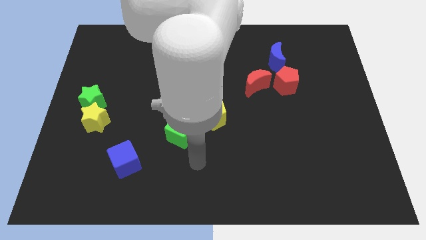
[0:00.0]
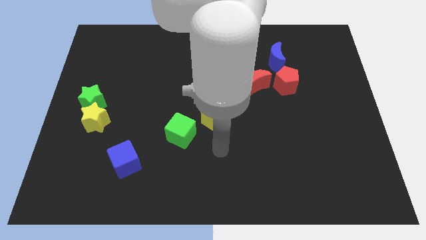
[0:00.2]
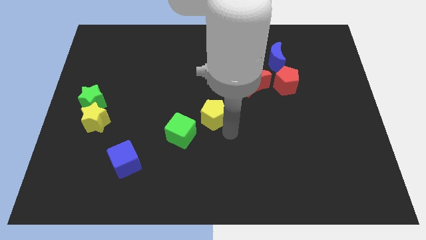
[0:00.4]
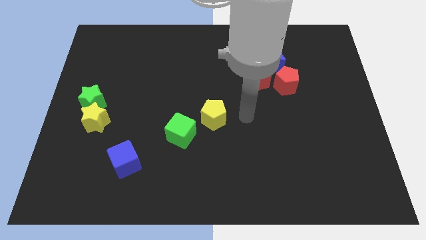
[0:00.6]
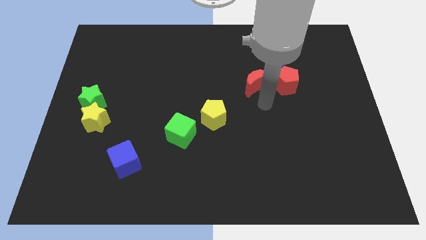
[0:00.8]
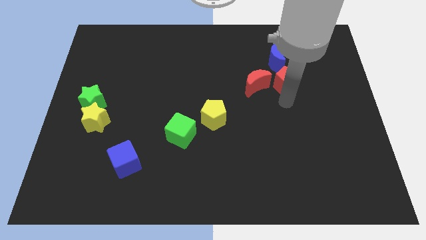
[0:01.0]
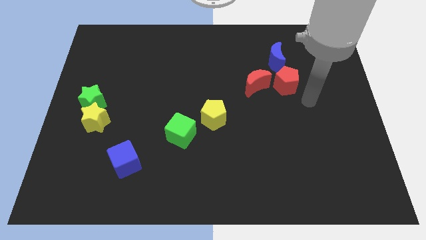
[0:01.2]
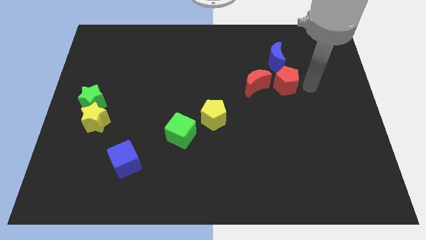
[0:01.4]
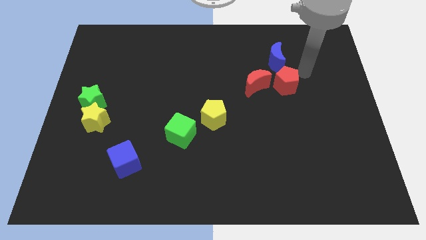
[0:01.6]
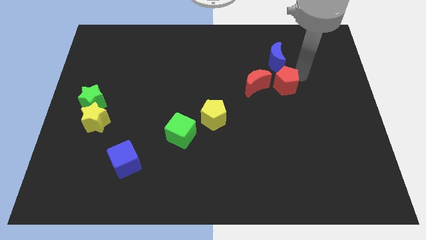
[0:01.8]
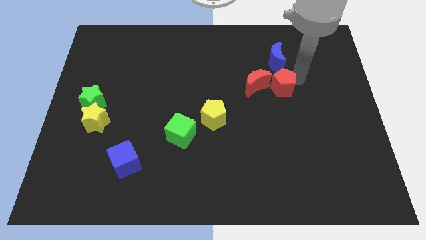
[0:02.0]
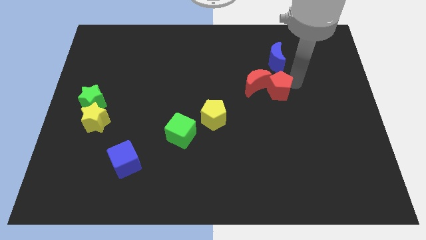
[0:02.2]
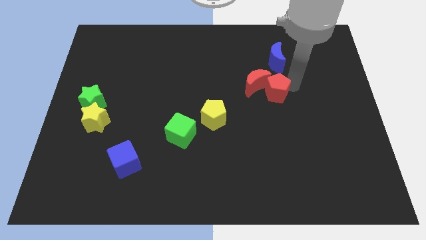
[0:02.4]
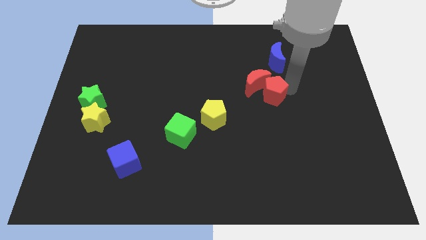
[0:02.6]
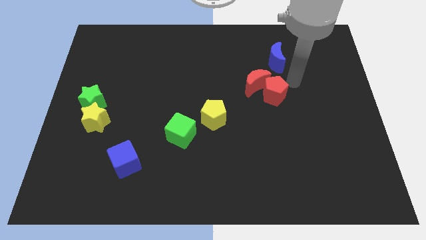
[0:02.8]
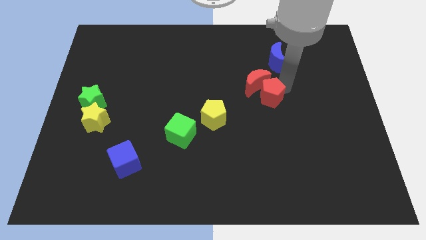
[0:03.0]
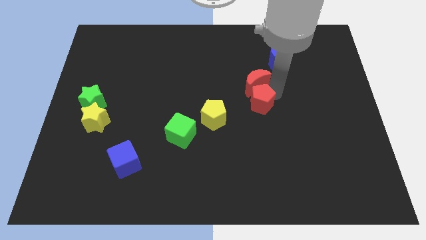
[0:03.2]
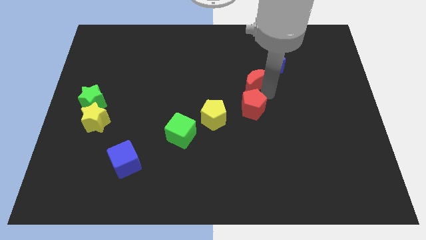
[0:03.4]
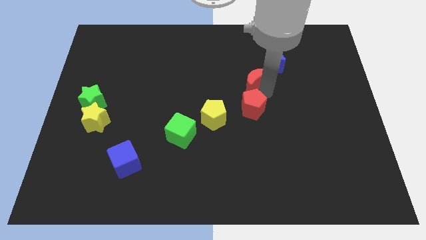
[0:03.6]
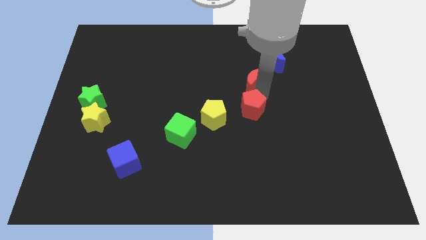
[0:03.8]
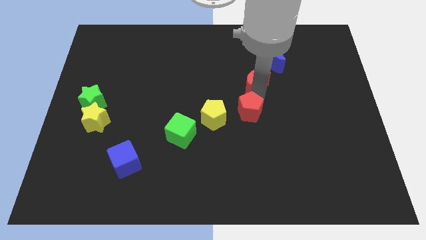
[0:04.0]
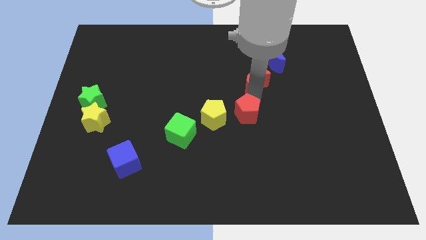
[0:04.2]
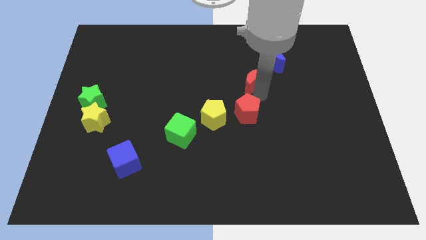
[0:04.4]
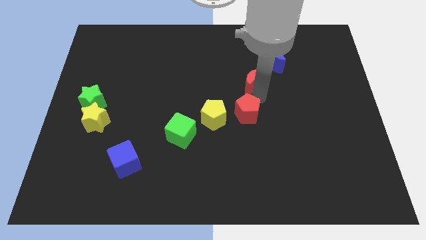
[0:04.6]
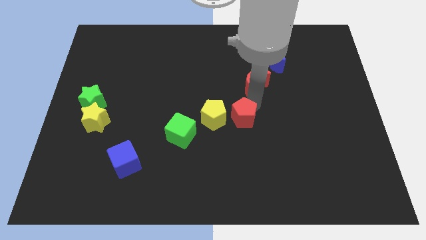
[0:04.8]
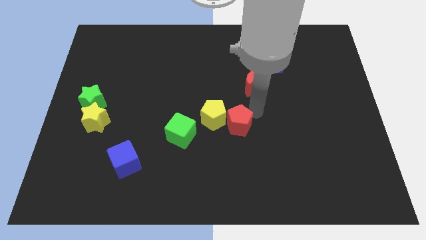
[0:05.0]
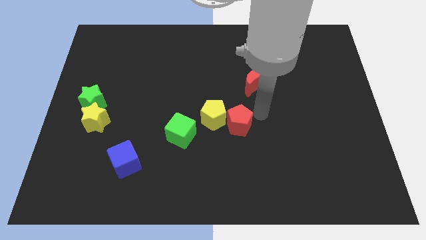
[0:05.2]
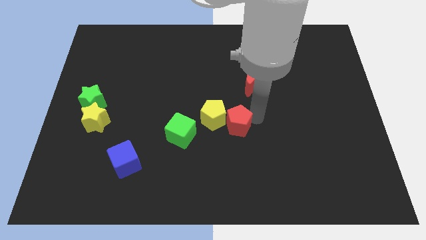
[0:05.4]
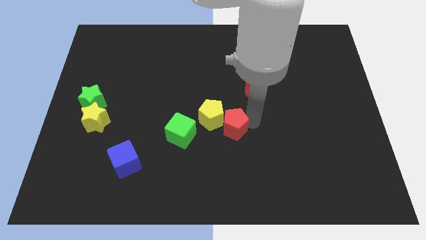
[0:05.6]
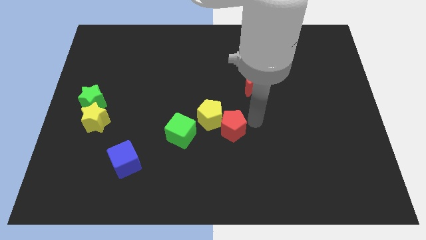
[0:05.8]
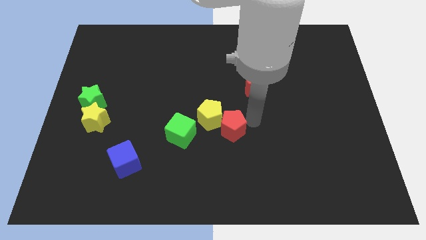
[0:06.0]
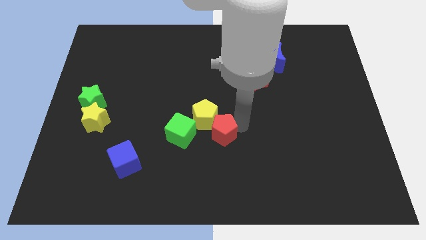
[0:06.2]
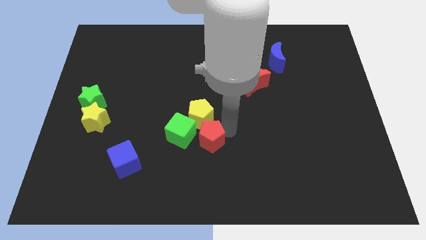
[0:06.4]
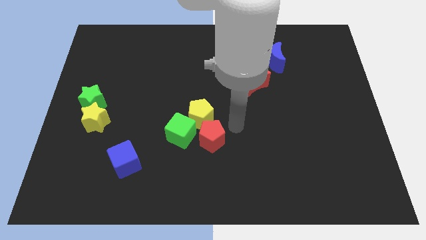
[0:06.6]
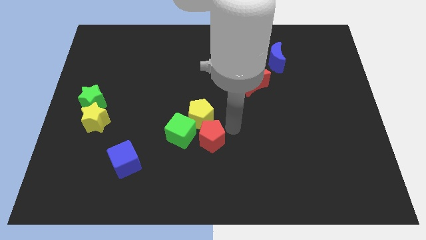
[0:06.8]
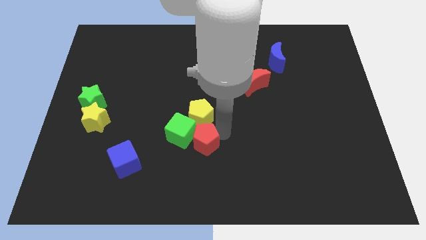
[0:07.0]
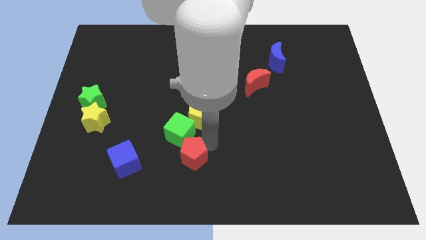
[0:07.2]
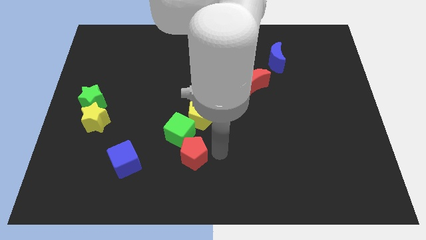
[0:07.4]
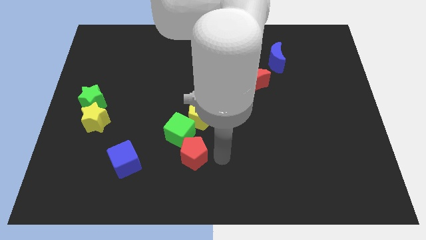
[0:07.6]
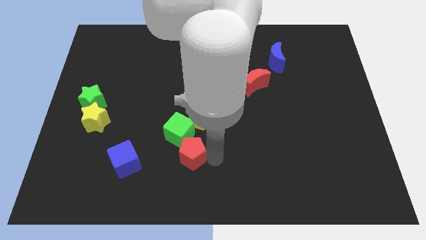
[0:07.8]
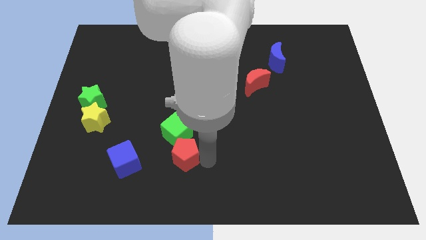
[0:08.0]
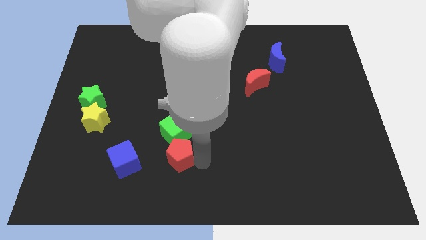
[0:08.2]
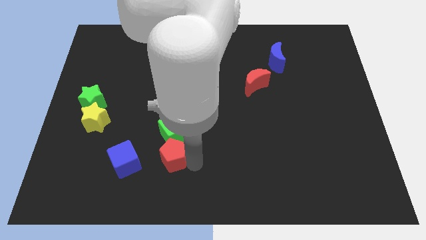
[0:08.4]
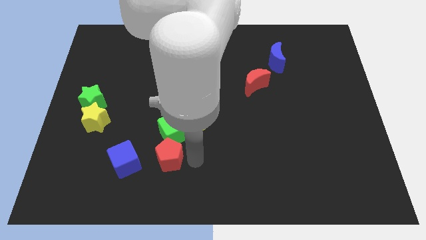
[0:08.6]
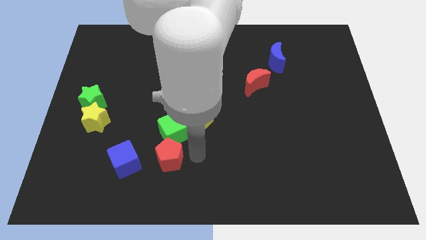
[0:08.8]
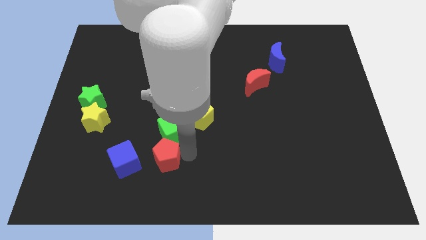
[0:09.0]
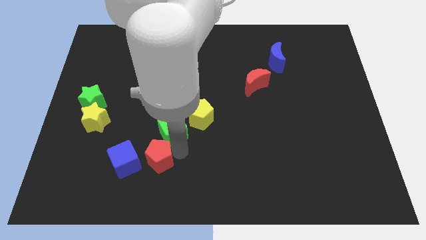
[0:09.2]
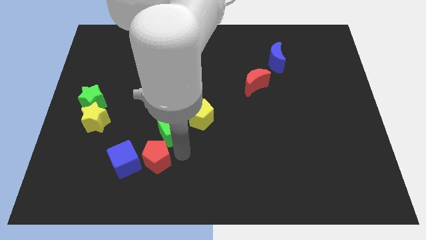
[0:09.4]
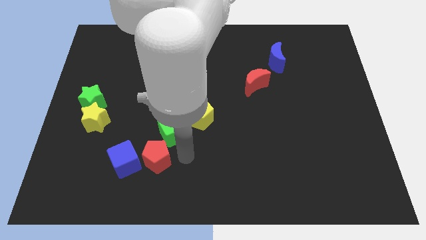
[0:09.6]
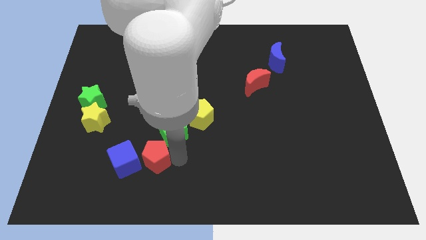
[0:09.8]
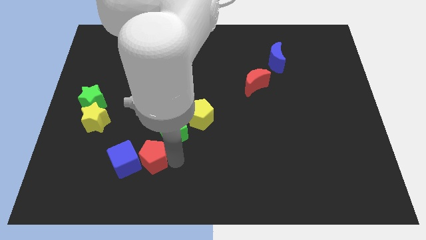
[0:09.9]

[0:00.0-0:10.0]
push the red pentagon close to the blue cube

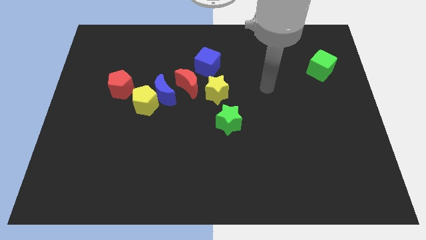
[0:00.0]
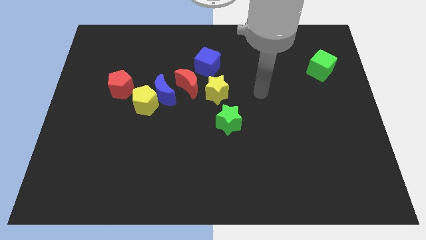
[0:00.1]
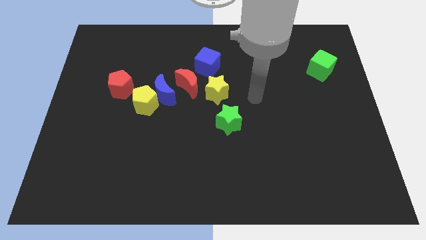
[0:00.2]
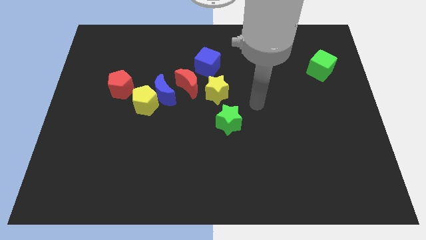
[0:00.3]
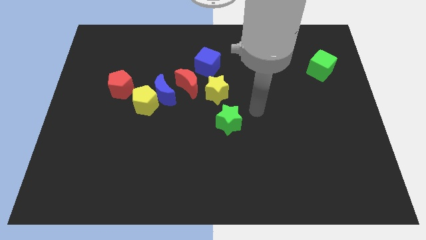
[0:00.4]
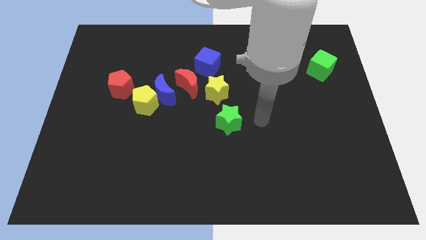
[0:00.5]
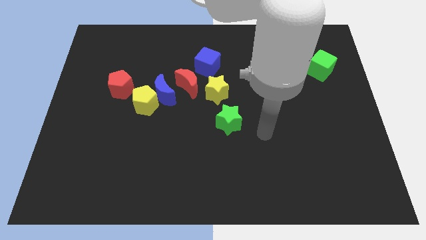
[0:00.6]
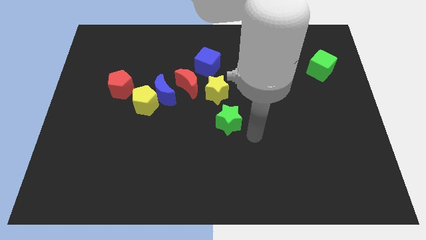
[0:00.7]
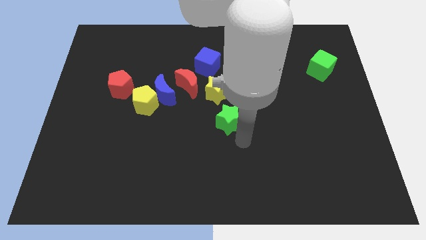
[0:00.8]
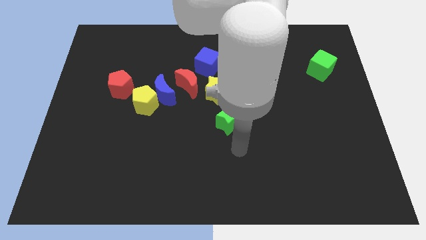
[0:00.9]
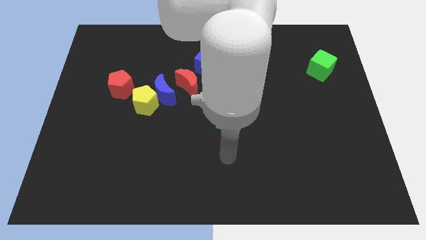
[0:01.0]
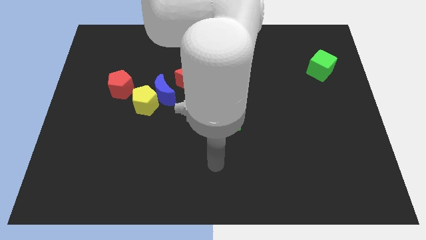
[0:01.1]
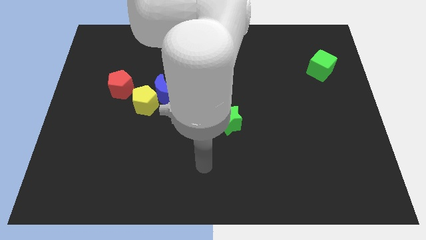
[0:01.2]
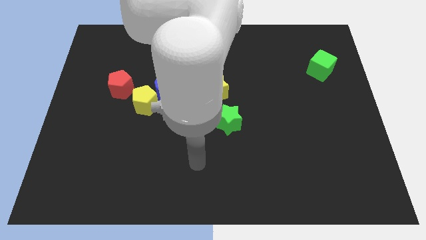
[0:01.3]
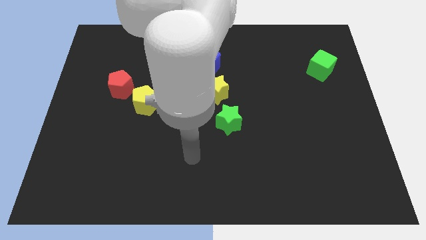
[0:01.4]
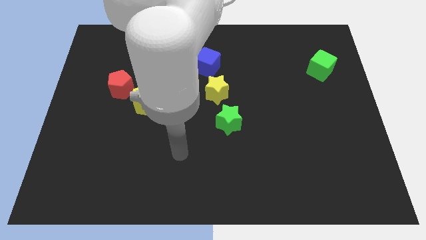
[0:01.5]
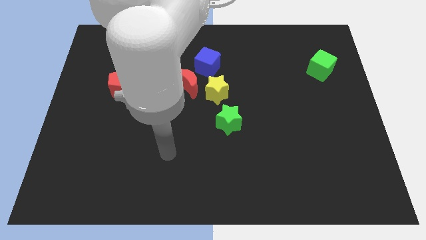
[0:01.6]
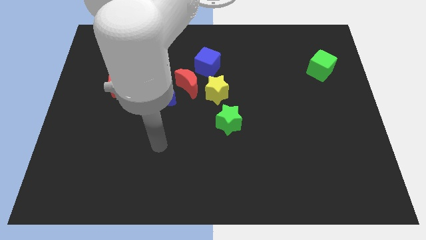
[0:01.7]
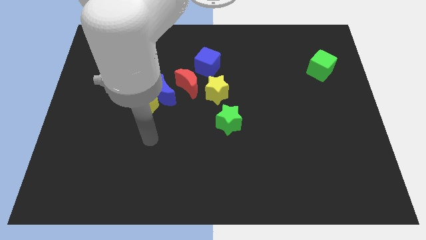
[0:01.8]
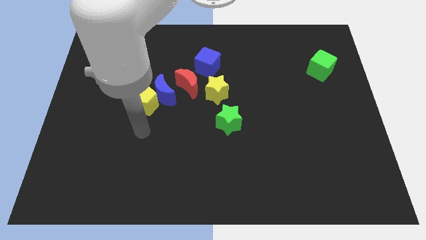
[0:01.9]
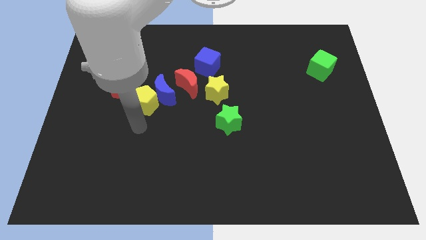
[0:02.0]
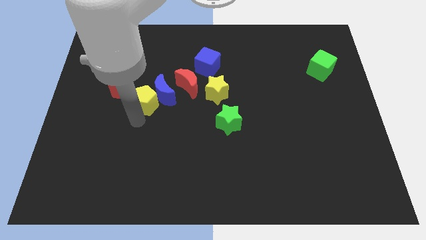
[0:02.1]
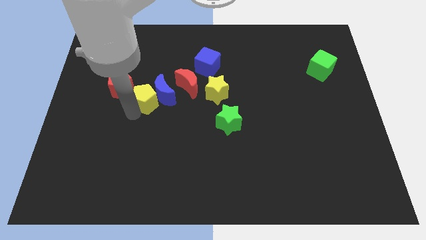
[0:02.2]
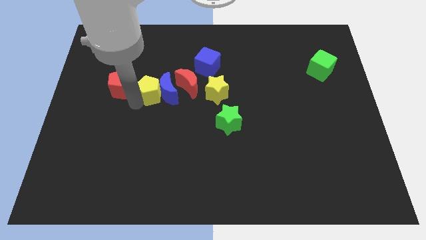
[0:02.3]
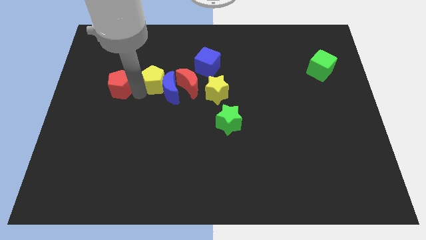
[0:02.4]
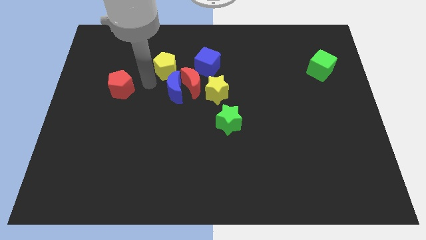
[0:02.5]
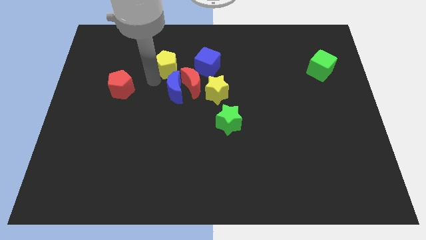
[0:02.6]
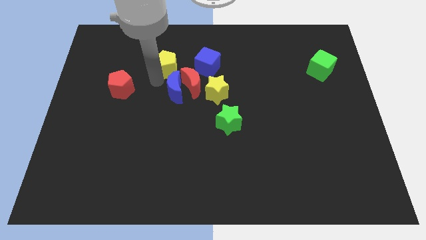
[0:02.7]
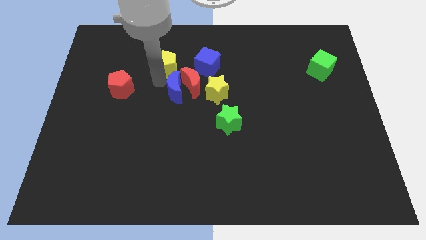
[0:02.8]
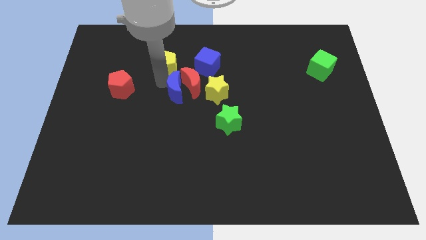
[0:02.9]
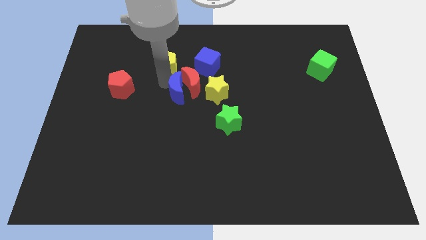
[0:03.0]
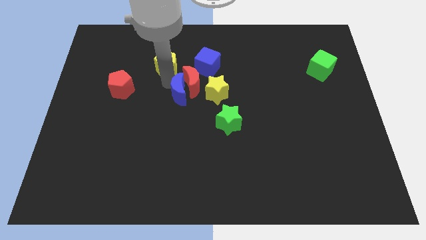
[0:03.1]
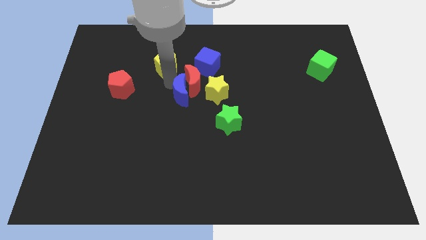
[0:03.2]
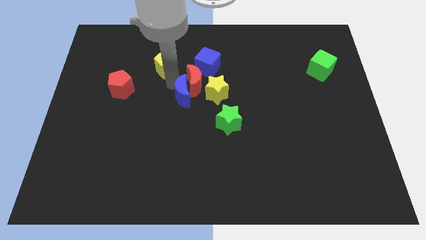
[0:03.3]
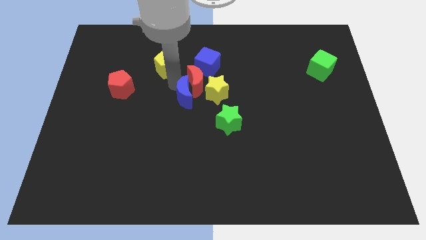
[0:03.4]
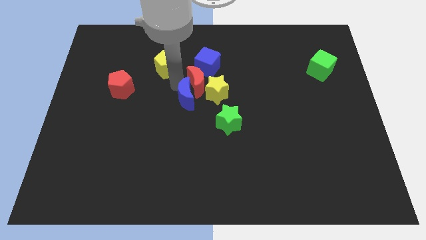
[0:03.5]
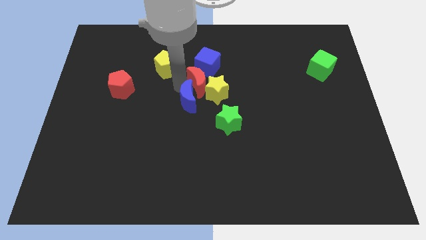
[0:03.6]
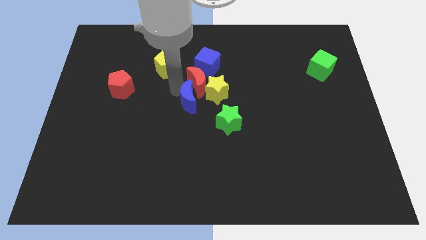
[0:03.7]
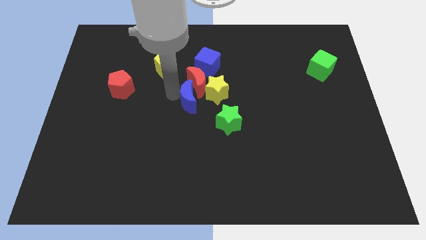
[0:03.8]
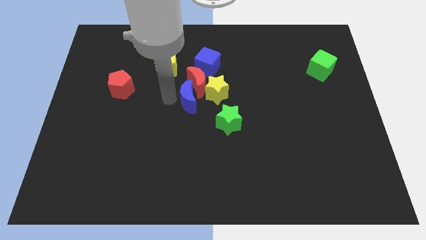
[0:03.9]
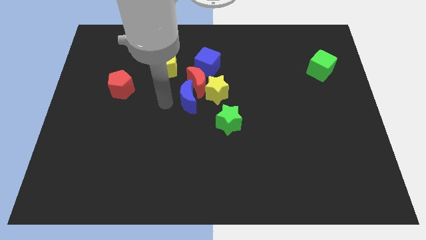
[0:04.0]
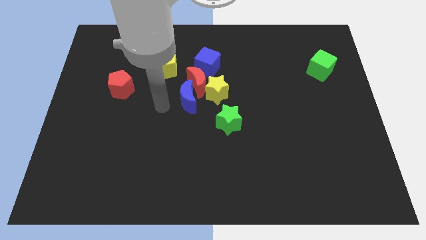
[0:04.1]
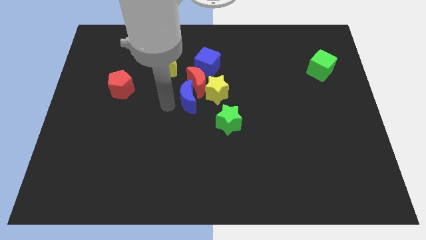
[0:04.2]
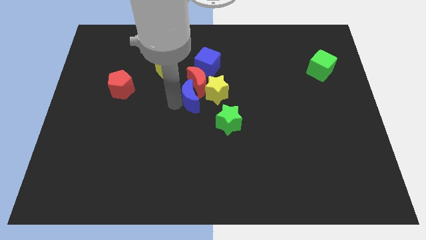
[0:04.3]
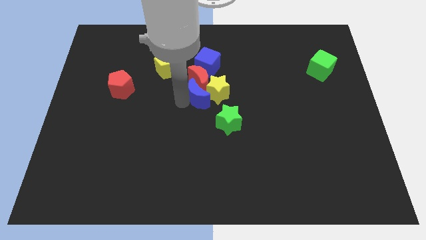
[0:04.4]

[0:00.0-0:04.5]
move the blue moon to the yellow star
